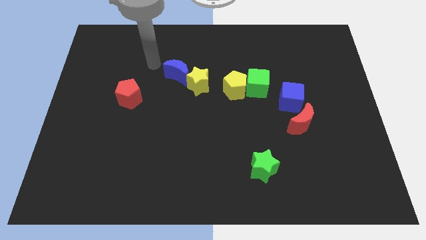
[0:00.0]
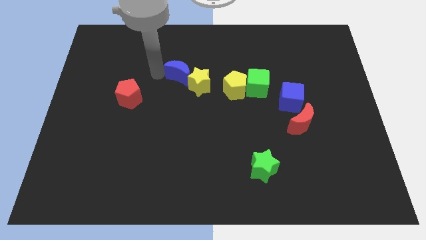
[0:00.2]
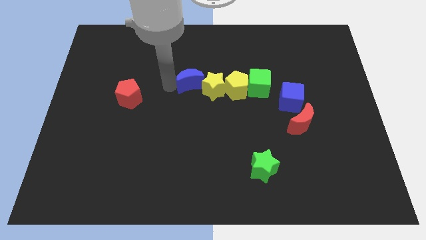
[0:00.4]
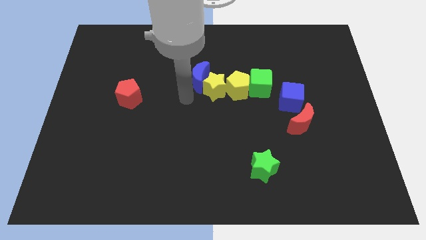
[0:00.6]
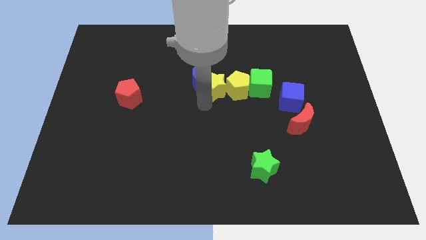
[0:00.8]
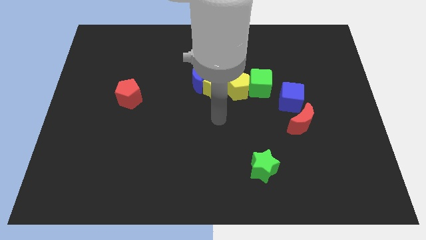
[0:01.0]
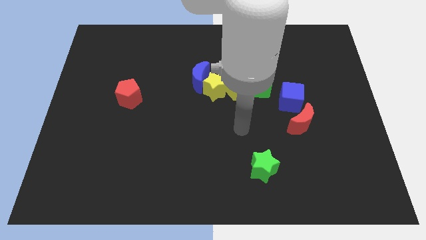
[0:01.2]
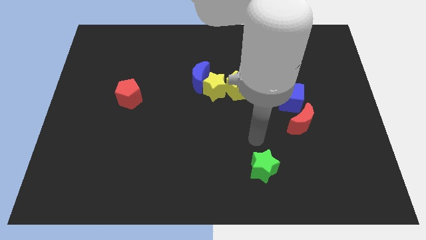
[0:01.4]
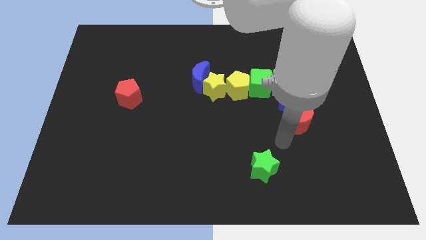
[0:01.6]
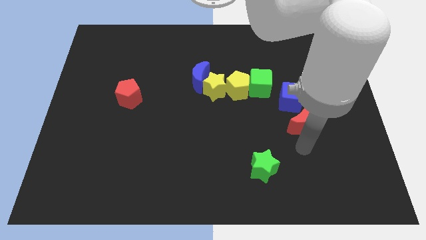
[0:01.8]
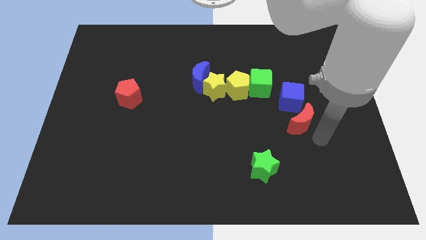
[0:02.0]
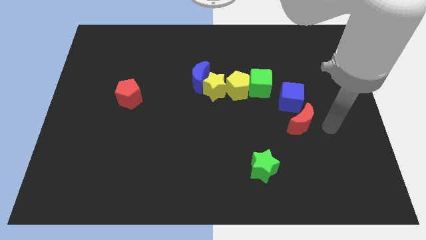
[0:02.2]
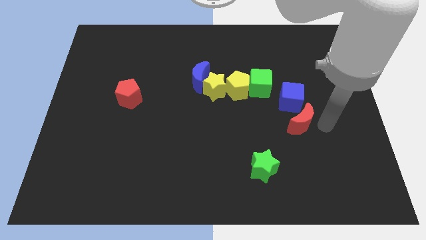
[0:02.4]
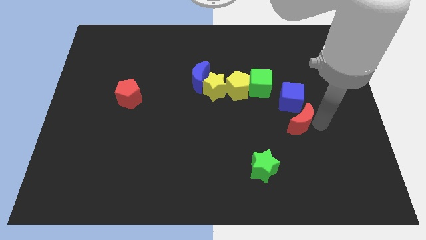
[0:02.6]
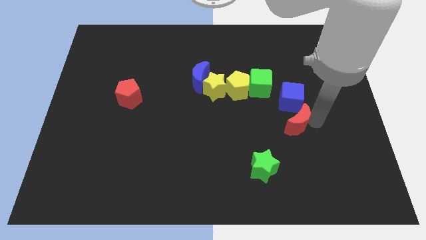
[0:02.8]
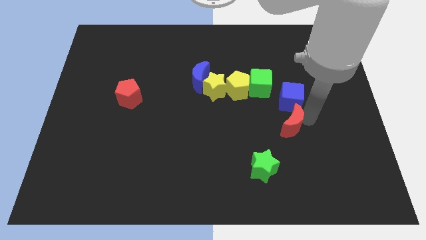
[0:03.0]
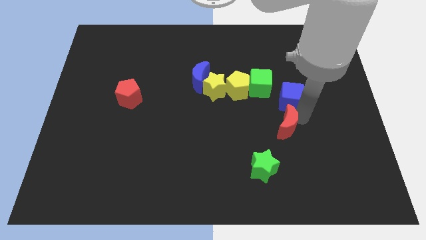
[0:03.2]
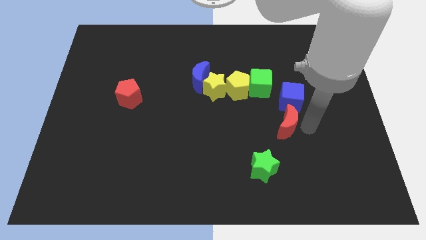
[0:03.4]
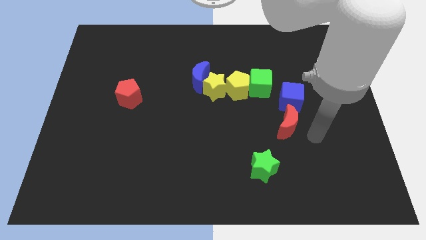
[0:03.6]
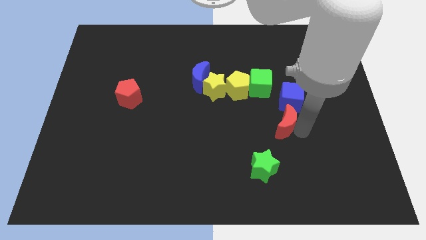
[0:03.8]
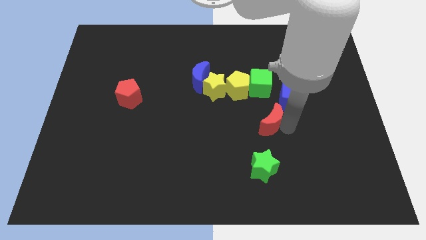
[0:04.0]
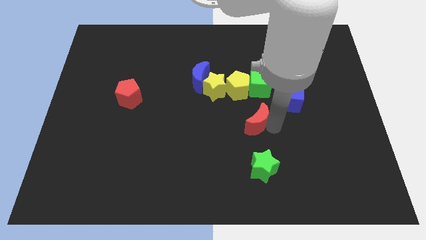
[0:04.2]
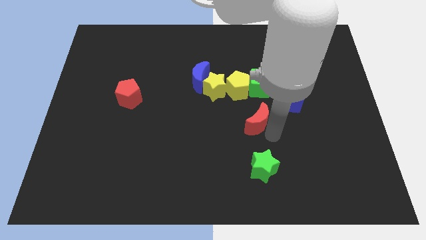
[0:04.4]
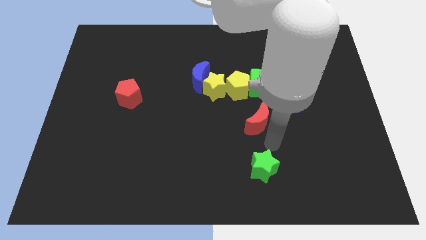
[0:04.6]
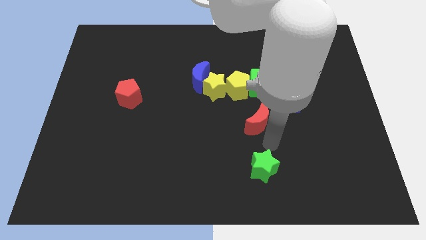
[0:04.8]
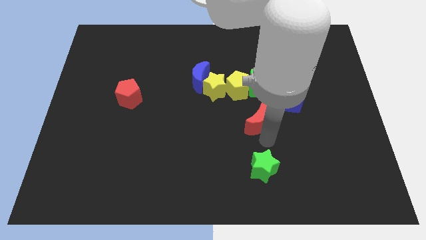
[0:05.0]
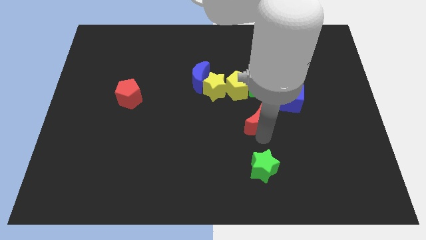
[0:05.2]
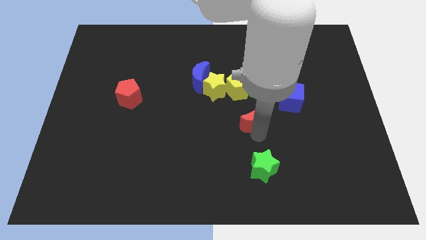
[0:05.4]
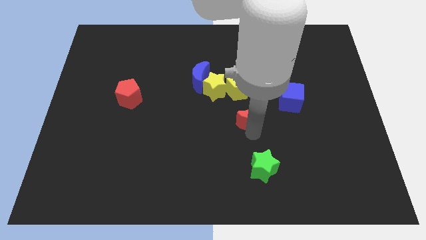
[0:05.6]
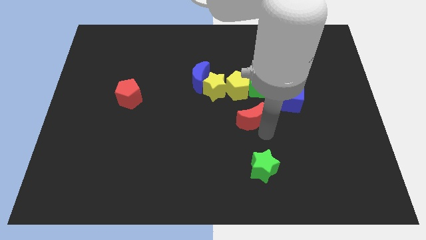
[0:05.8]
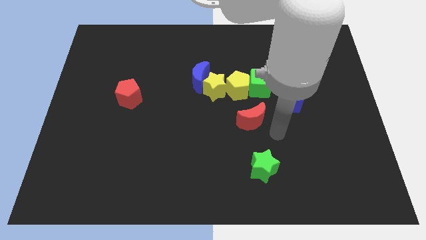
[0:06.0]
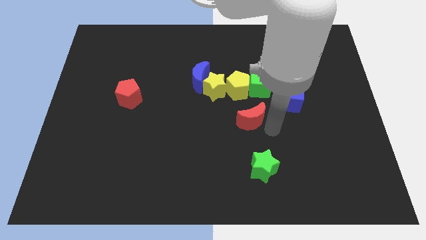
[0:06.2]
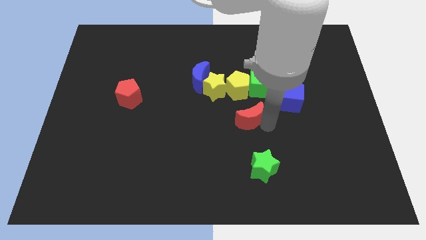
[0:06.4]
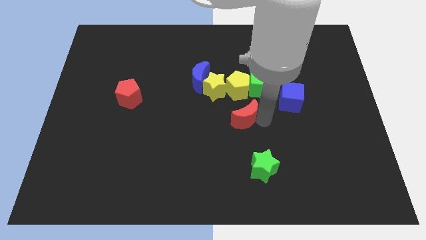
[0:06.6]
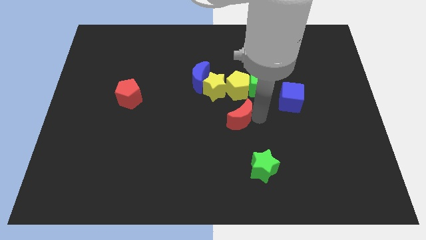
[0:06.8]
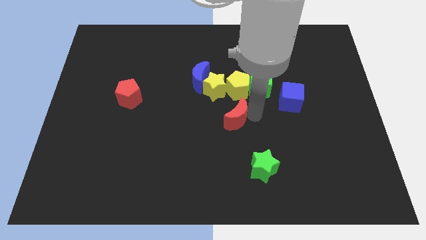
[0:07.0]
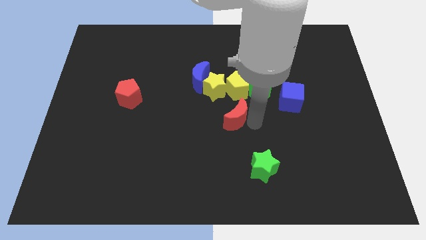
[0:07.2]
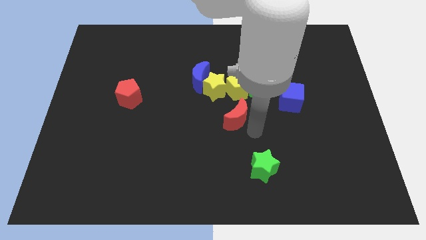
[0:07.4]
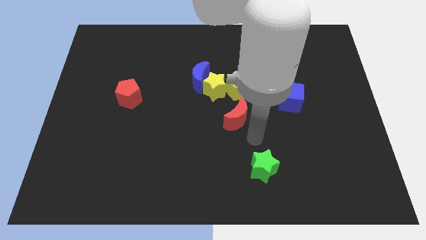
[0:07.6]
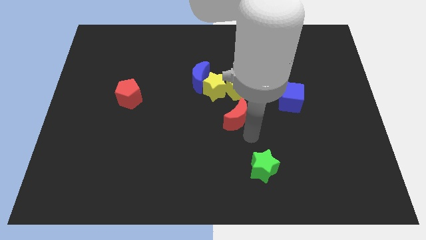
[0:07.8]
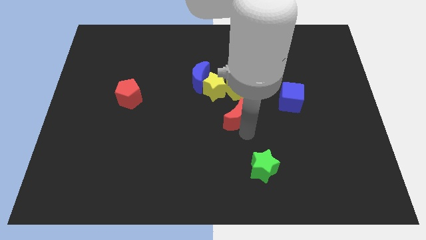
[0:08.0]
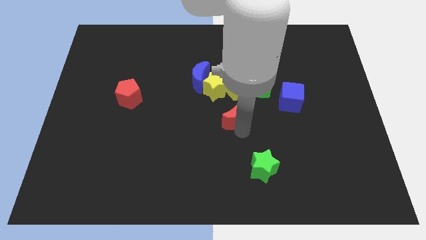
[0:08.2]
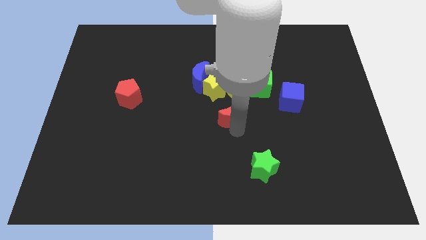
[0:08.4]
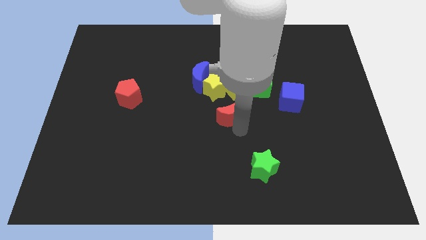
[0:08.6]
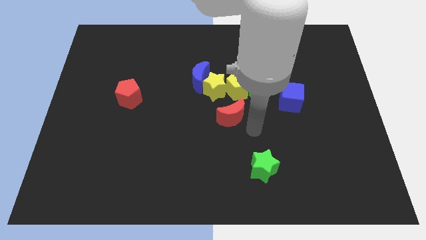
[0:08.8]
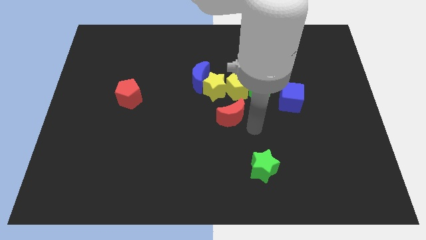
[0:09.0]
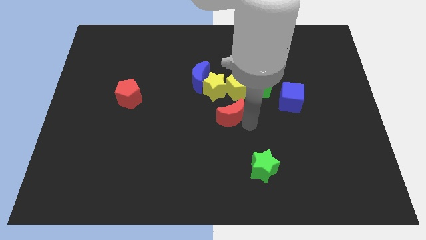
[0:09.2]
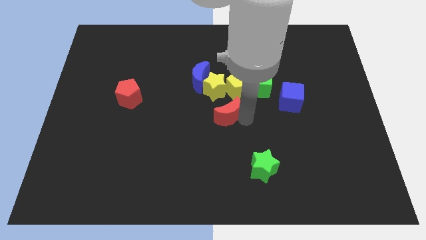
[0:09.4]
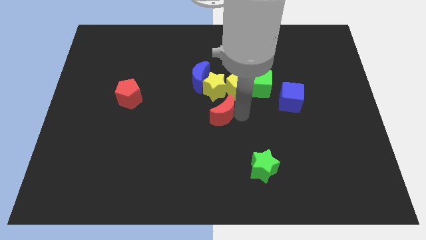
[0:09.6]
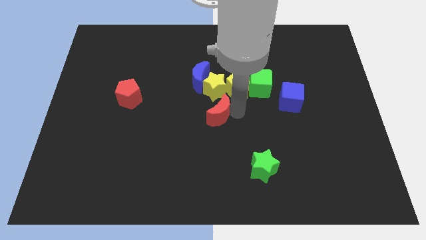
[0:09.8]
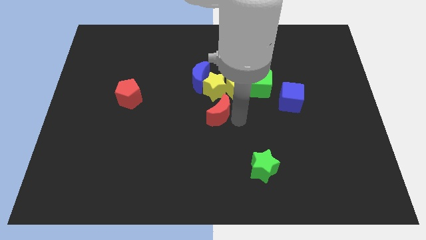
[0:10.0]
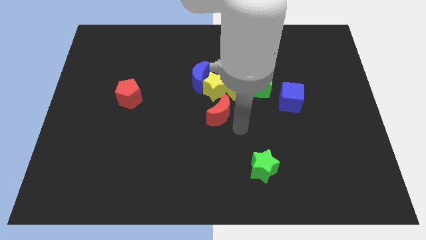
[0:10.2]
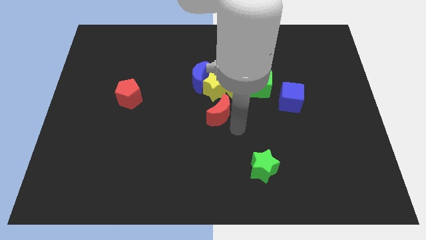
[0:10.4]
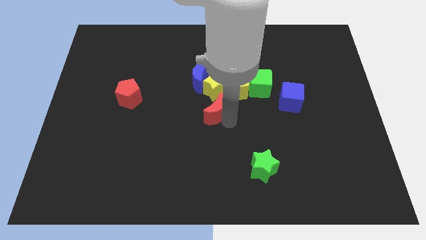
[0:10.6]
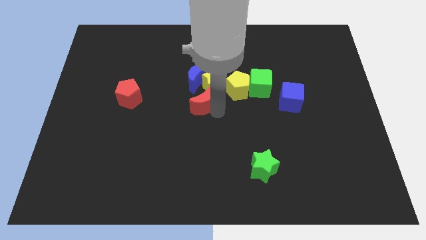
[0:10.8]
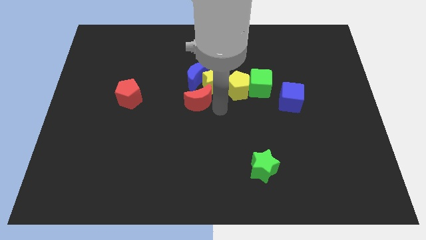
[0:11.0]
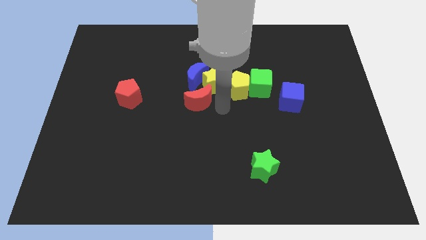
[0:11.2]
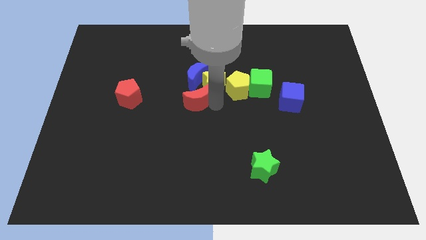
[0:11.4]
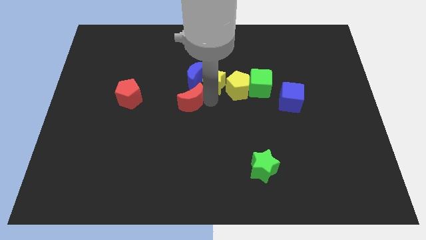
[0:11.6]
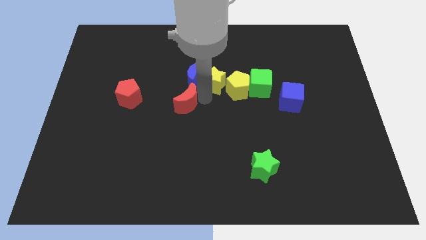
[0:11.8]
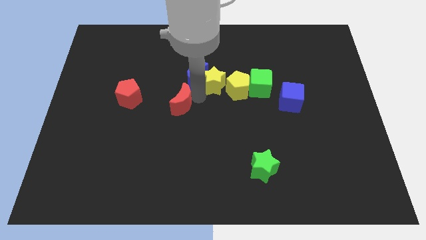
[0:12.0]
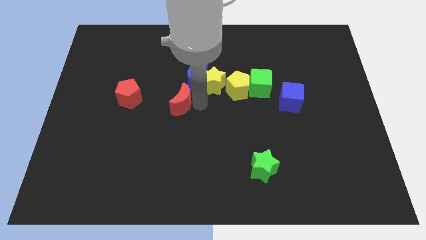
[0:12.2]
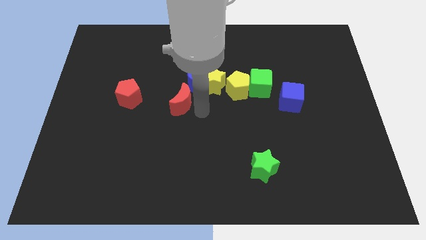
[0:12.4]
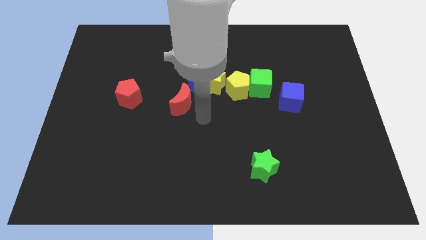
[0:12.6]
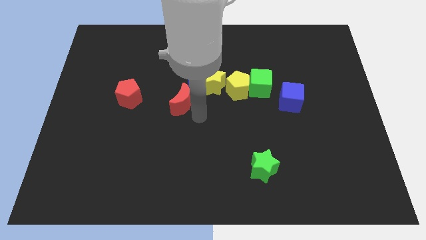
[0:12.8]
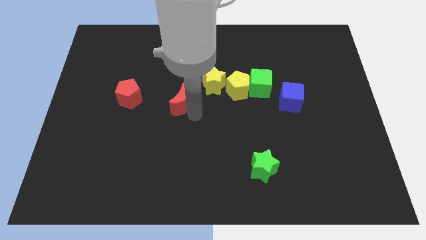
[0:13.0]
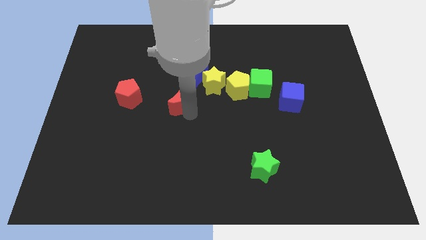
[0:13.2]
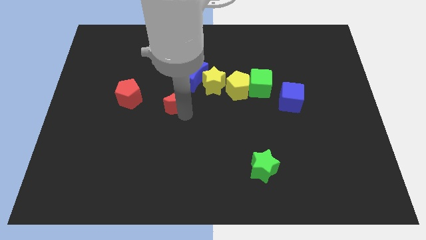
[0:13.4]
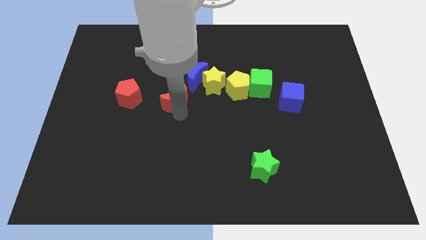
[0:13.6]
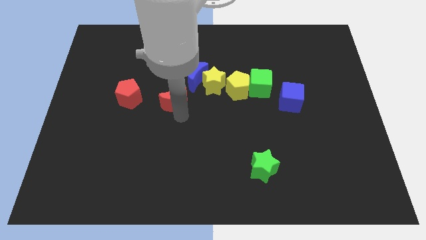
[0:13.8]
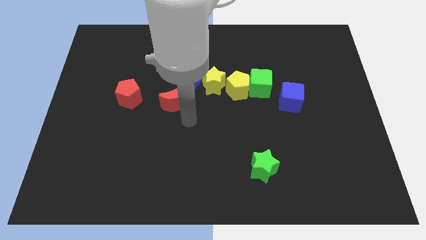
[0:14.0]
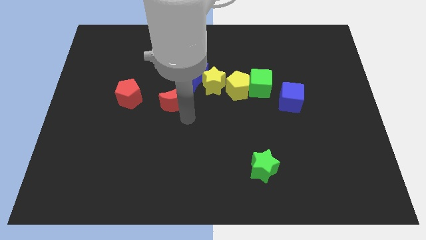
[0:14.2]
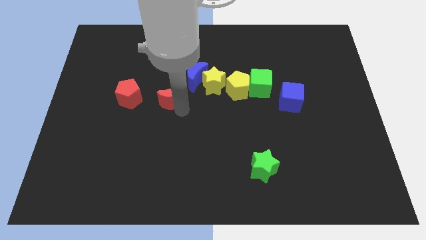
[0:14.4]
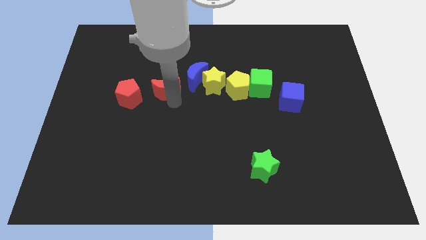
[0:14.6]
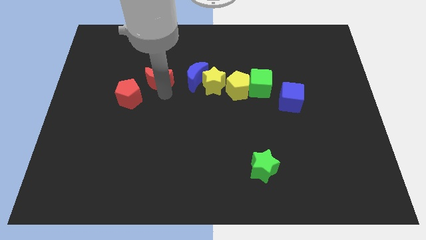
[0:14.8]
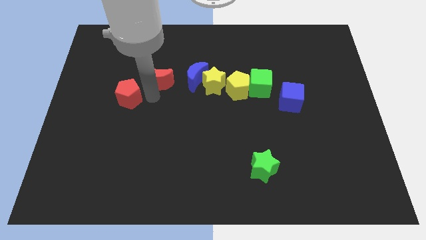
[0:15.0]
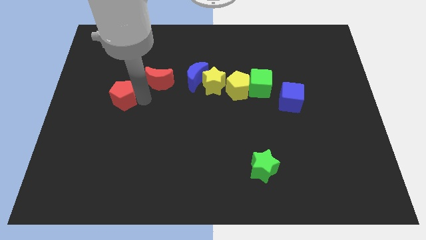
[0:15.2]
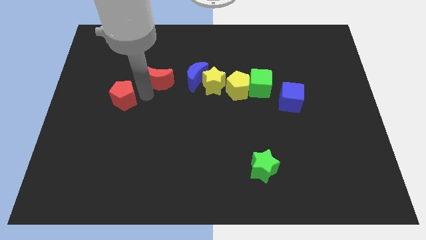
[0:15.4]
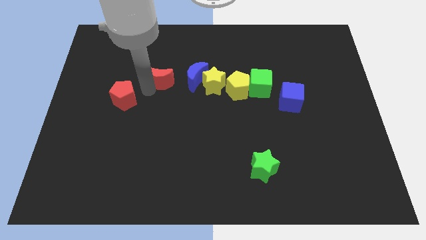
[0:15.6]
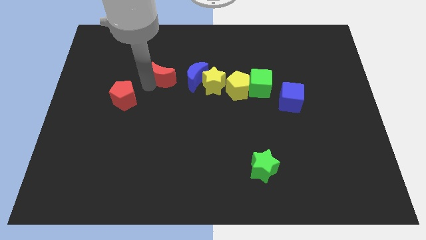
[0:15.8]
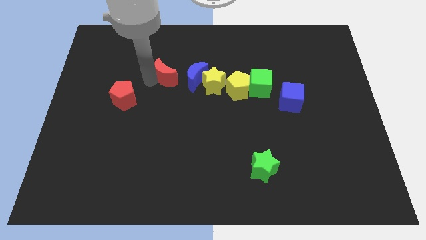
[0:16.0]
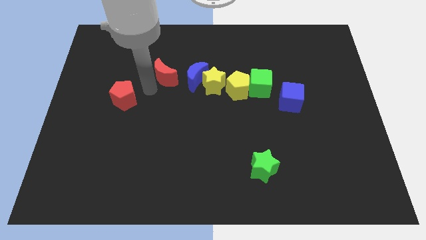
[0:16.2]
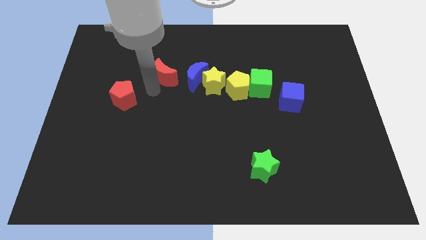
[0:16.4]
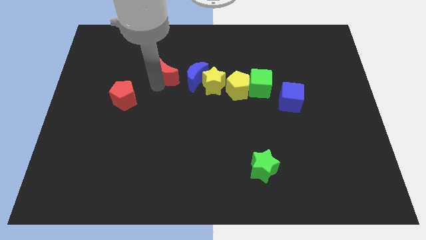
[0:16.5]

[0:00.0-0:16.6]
move the red moon to the top left side of the blue moon
